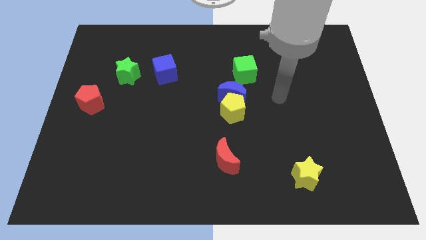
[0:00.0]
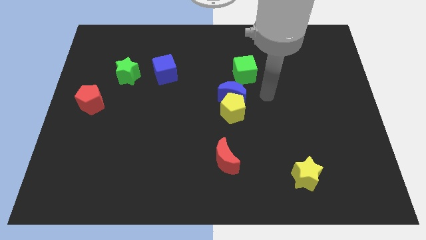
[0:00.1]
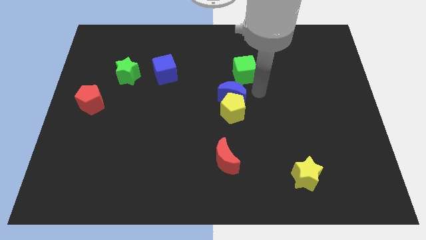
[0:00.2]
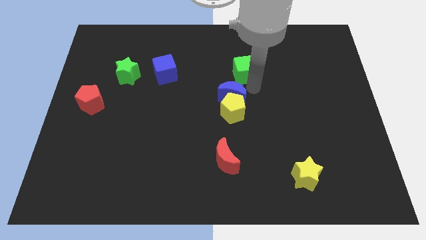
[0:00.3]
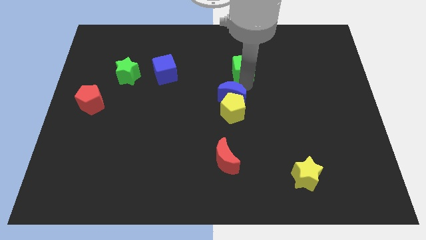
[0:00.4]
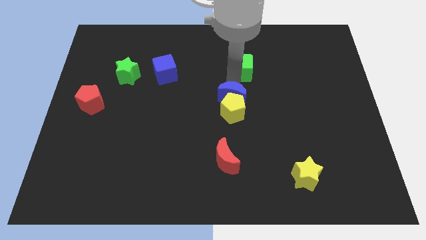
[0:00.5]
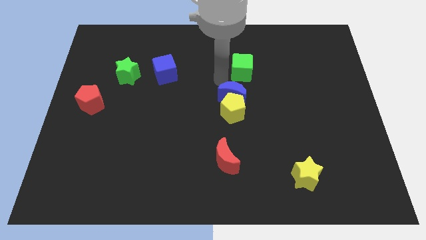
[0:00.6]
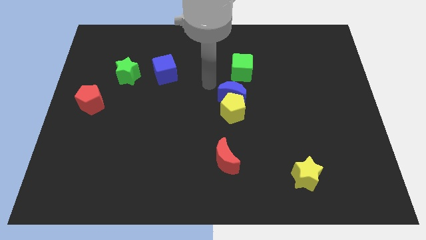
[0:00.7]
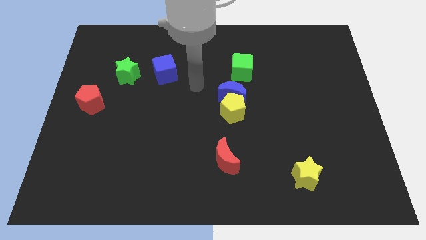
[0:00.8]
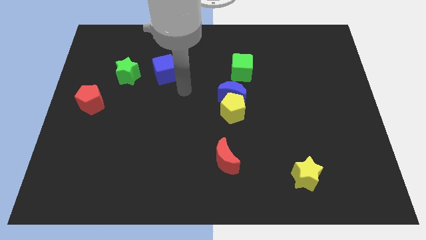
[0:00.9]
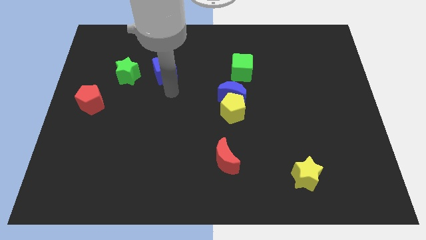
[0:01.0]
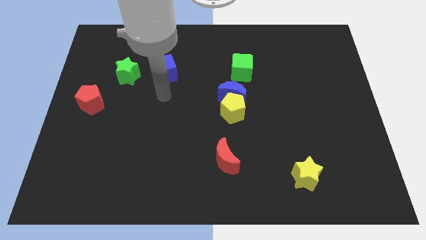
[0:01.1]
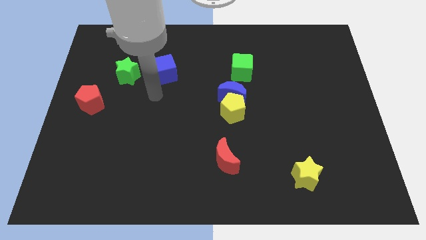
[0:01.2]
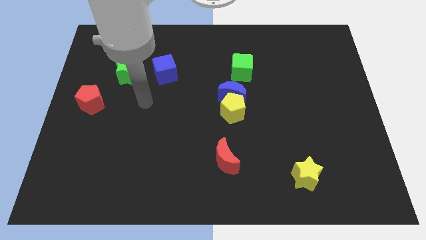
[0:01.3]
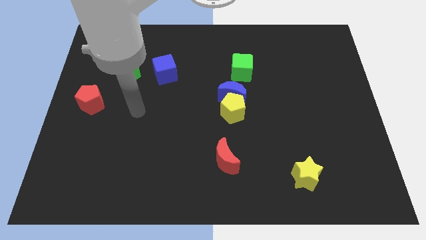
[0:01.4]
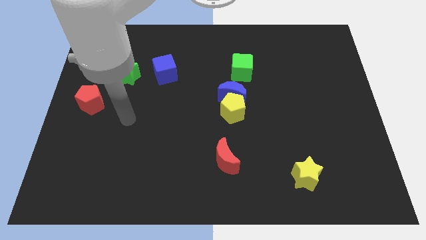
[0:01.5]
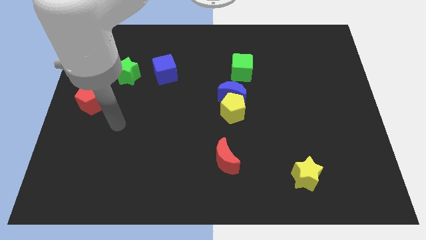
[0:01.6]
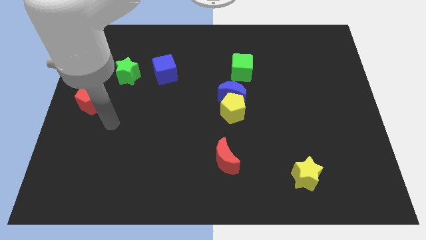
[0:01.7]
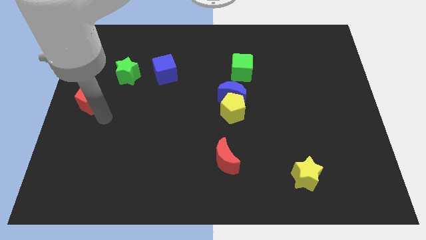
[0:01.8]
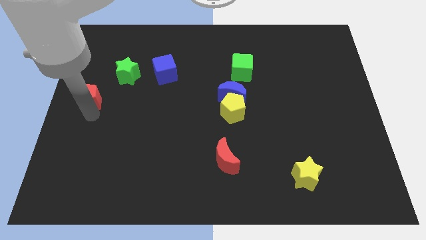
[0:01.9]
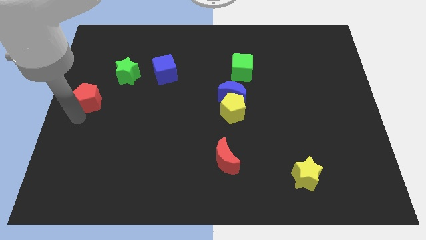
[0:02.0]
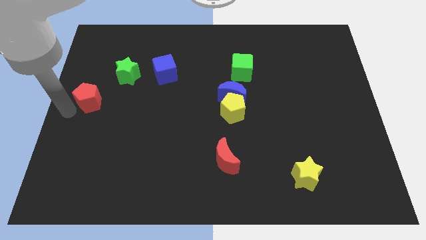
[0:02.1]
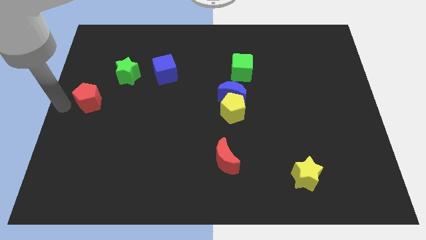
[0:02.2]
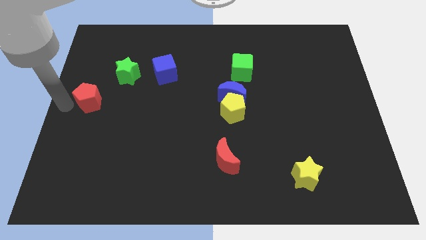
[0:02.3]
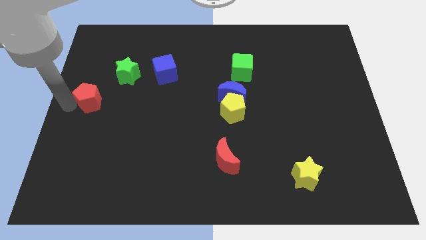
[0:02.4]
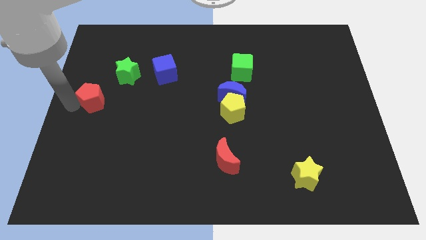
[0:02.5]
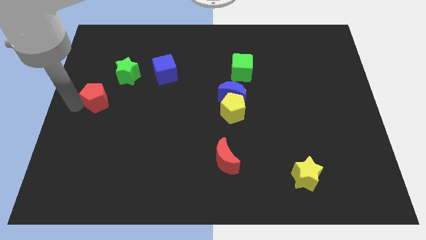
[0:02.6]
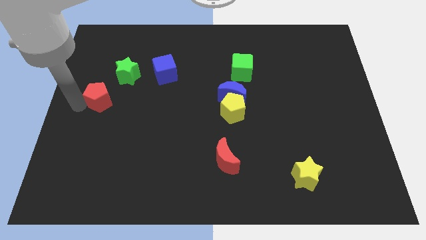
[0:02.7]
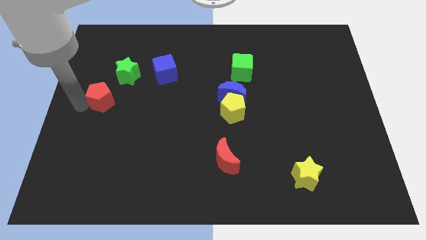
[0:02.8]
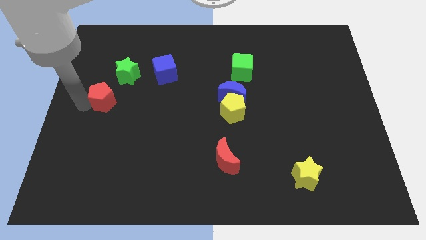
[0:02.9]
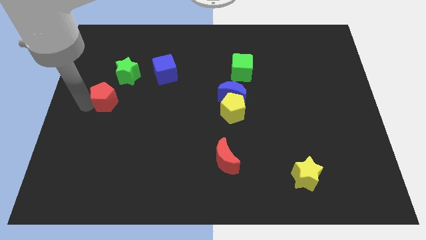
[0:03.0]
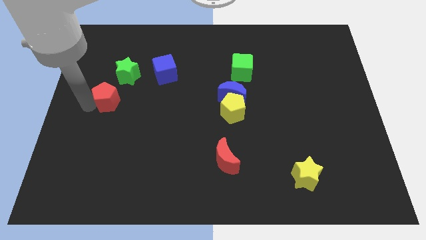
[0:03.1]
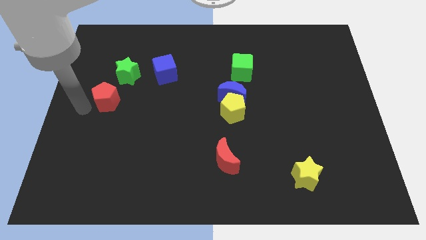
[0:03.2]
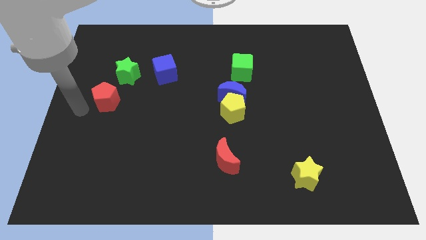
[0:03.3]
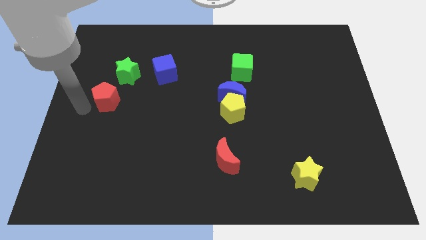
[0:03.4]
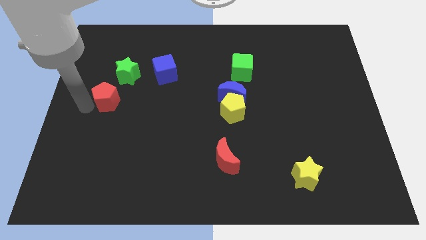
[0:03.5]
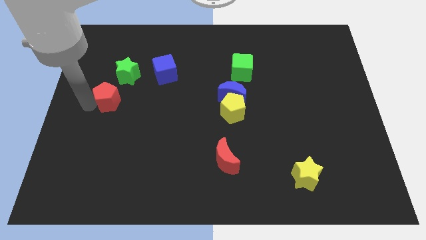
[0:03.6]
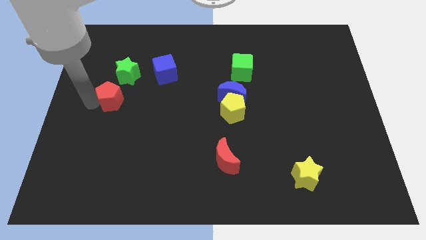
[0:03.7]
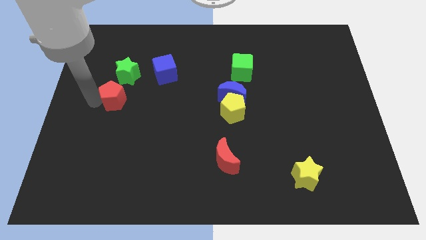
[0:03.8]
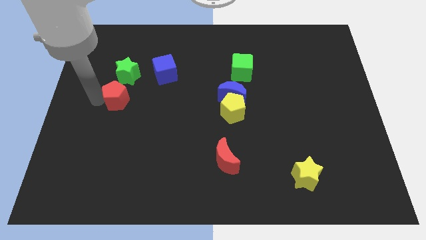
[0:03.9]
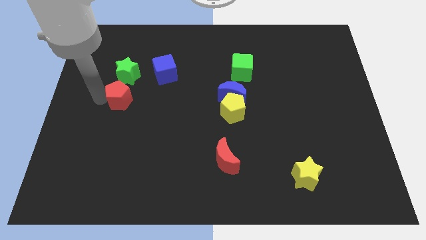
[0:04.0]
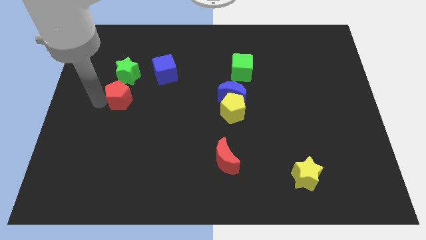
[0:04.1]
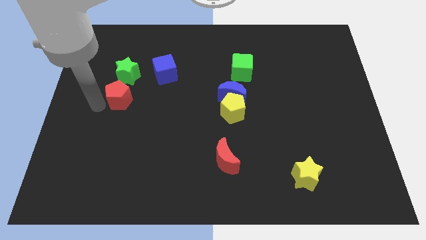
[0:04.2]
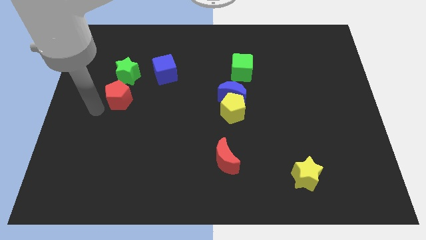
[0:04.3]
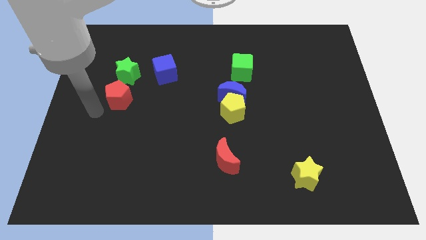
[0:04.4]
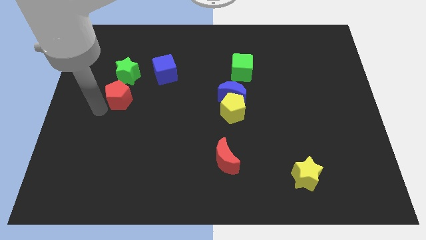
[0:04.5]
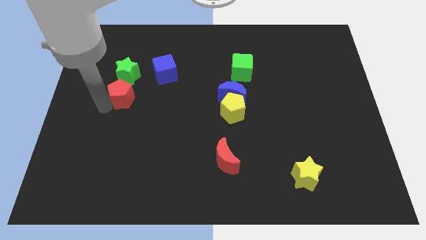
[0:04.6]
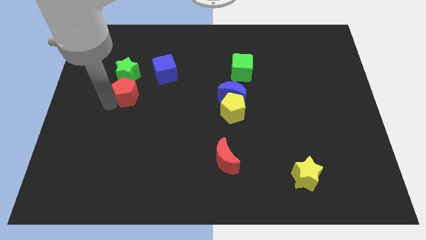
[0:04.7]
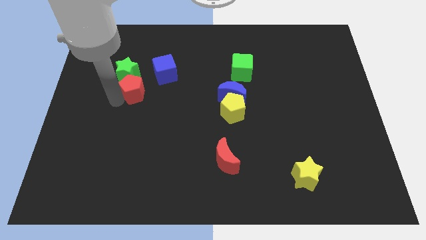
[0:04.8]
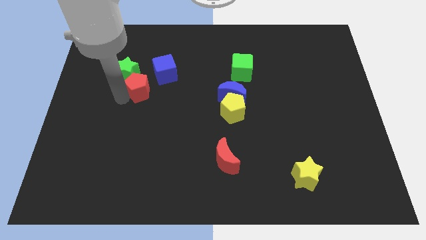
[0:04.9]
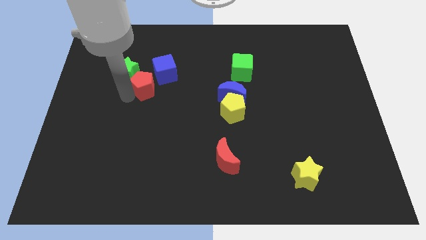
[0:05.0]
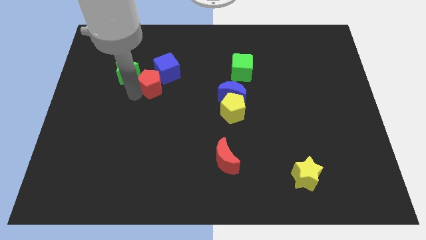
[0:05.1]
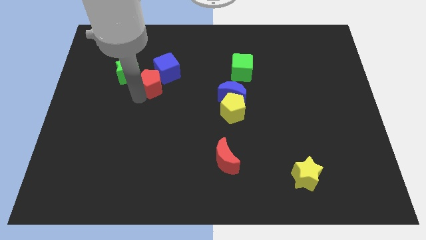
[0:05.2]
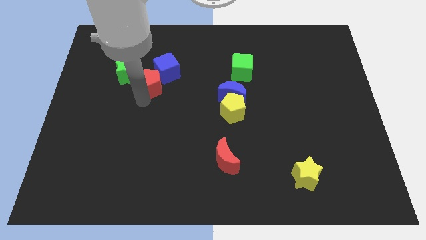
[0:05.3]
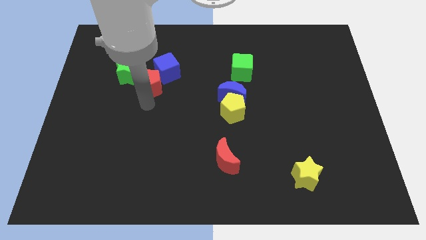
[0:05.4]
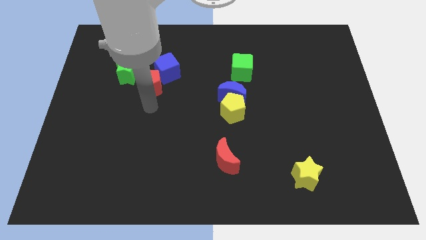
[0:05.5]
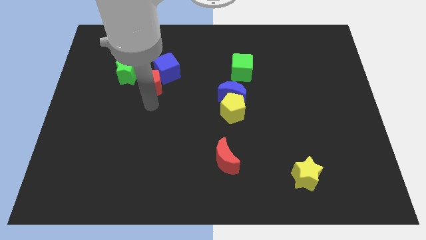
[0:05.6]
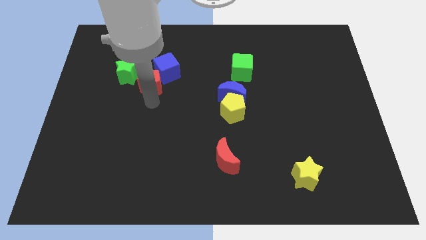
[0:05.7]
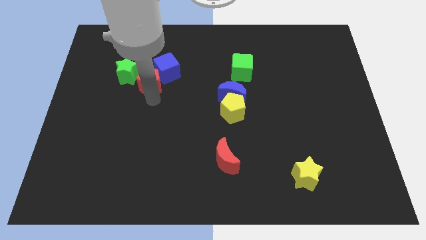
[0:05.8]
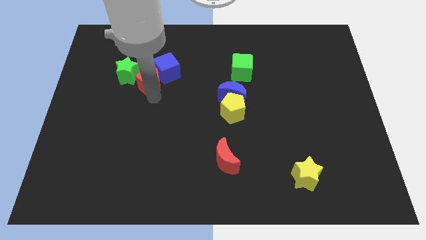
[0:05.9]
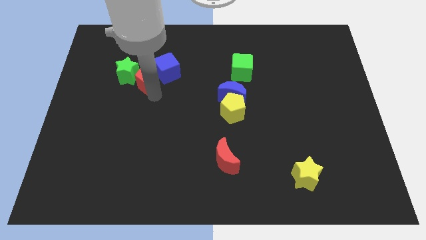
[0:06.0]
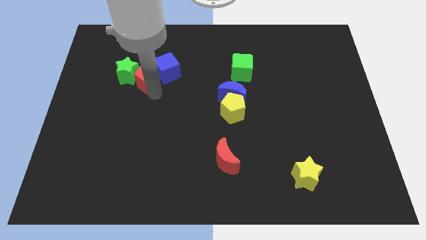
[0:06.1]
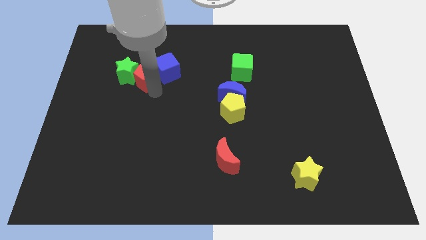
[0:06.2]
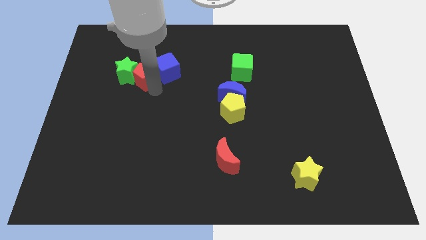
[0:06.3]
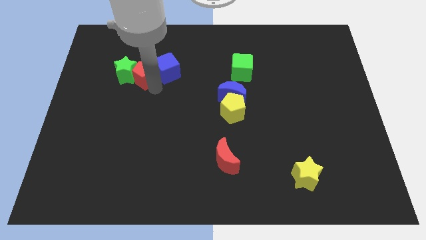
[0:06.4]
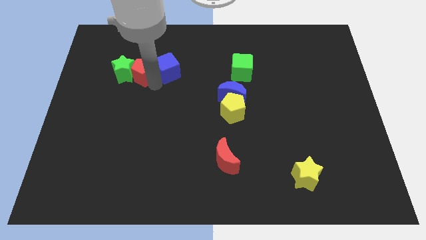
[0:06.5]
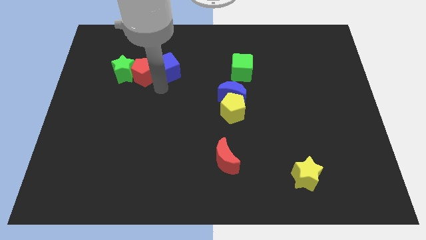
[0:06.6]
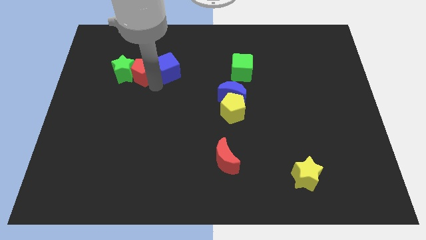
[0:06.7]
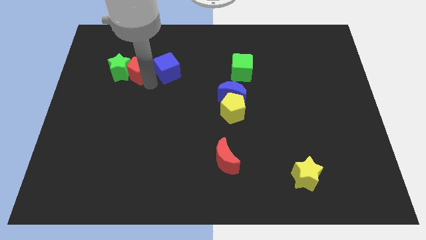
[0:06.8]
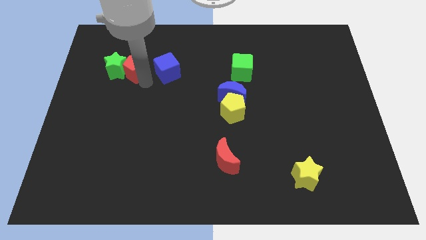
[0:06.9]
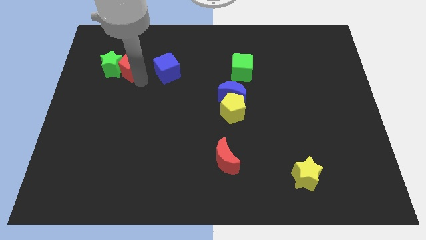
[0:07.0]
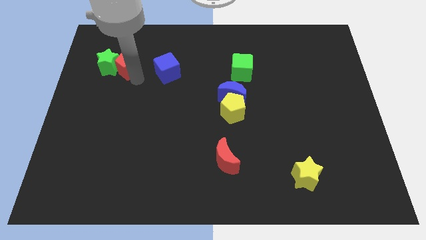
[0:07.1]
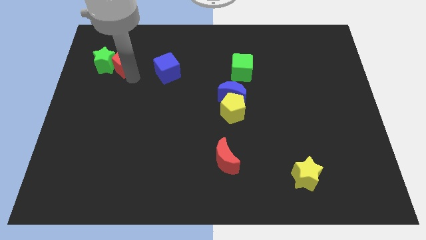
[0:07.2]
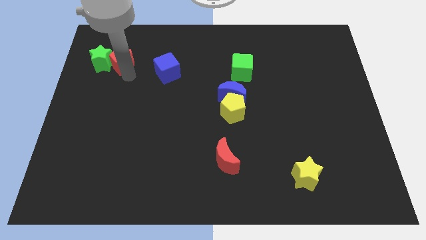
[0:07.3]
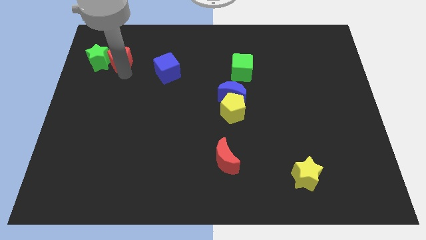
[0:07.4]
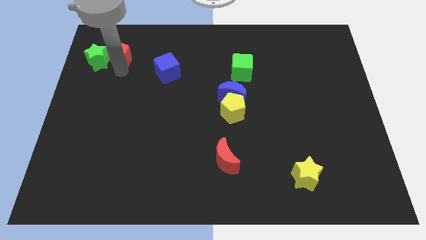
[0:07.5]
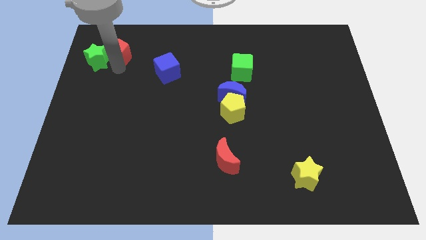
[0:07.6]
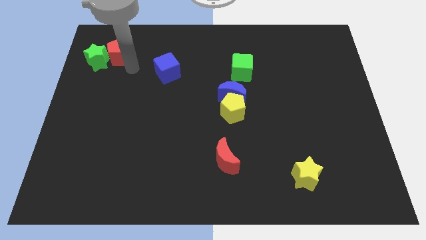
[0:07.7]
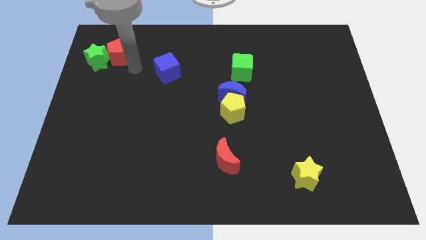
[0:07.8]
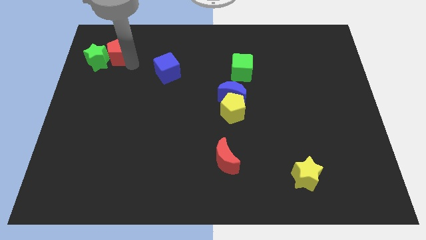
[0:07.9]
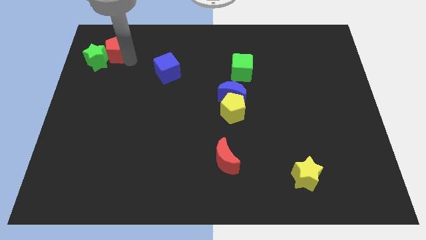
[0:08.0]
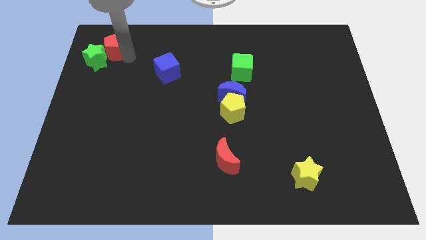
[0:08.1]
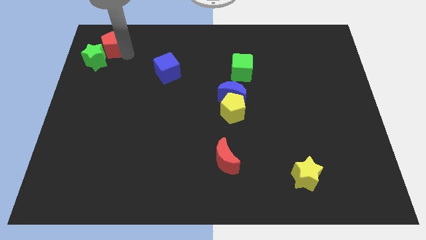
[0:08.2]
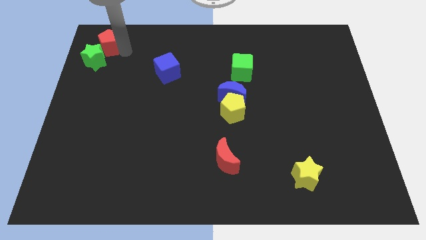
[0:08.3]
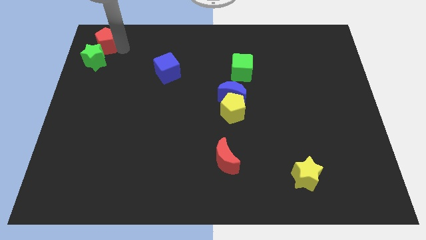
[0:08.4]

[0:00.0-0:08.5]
move the red pentagon to the top left
